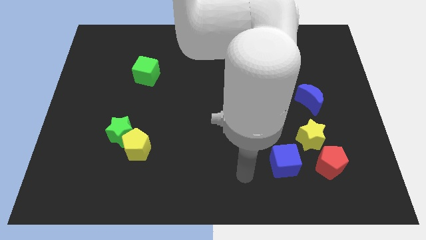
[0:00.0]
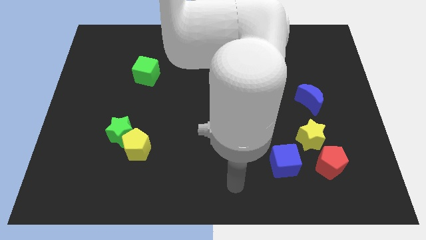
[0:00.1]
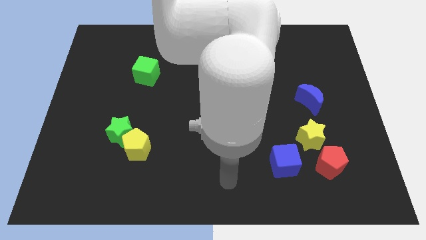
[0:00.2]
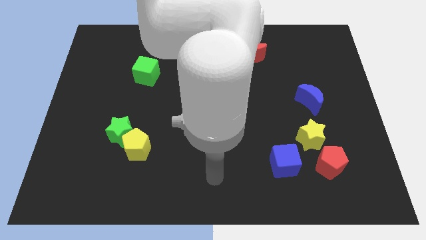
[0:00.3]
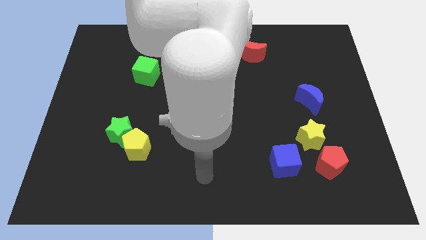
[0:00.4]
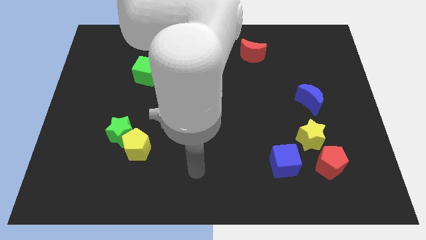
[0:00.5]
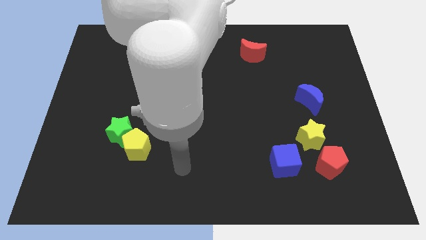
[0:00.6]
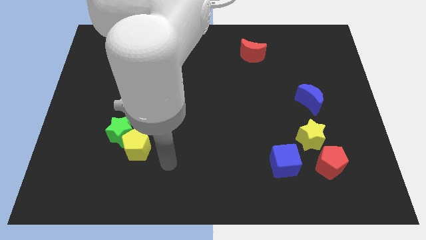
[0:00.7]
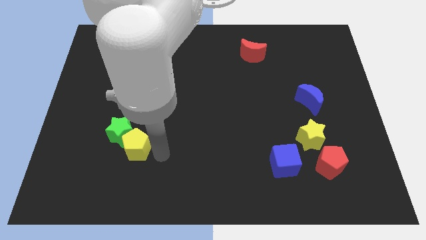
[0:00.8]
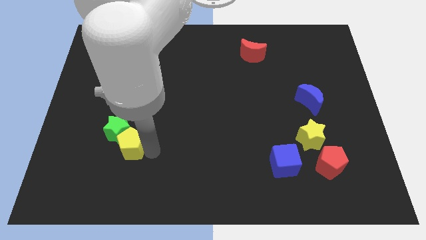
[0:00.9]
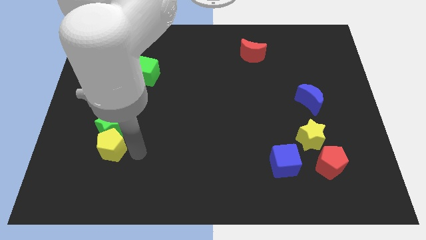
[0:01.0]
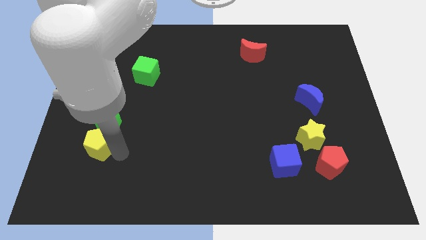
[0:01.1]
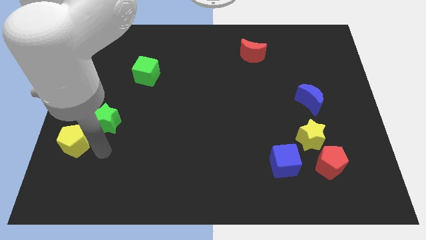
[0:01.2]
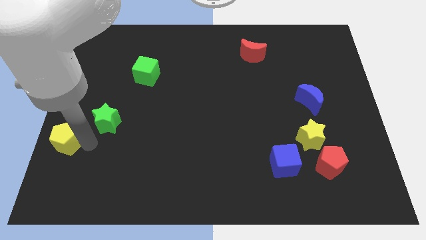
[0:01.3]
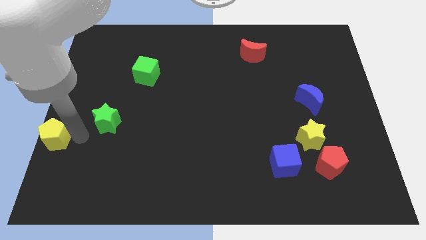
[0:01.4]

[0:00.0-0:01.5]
pull the green star apart from the yellow pentagon

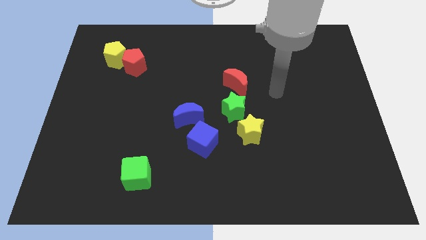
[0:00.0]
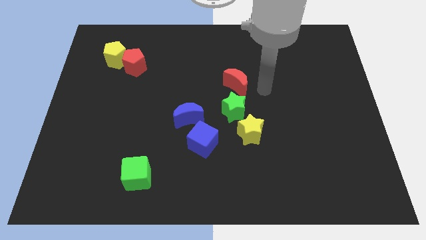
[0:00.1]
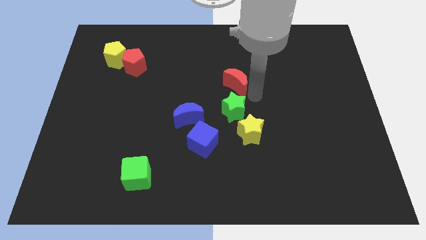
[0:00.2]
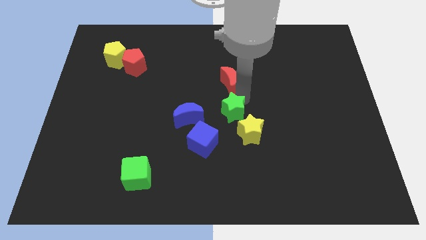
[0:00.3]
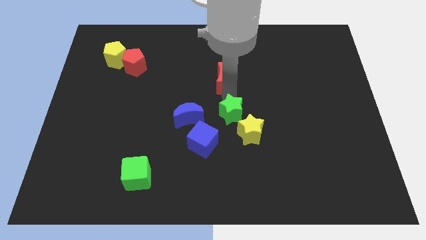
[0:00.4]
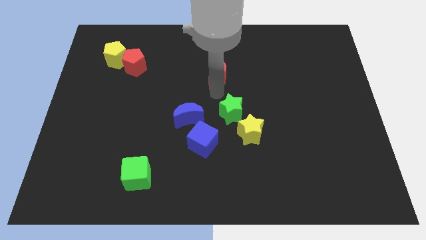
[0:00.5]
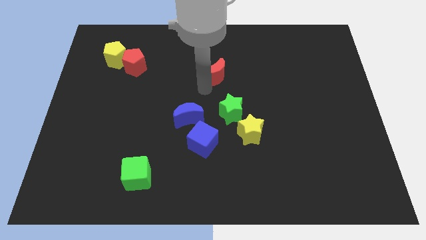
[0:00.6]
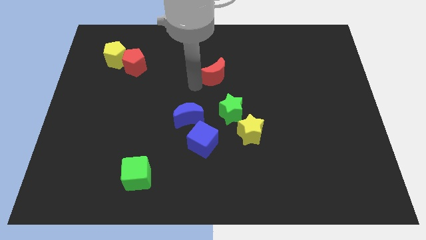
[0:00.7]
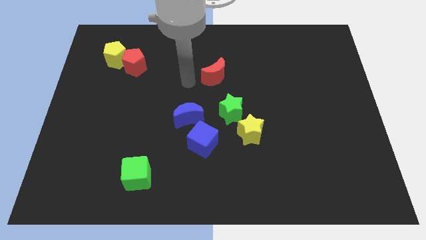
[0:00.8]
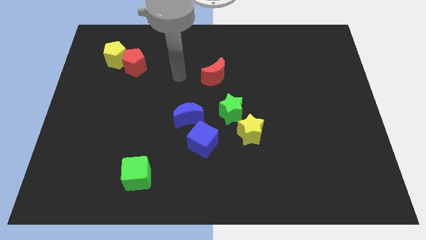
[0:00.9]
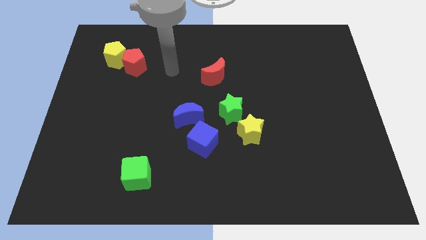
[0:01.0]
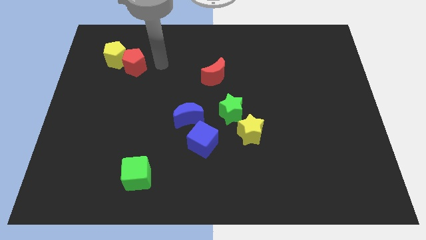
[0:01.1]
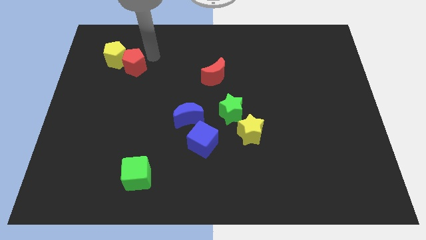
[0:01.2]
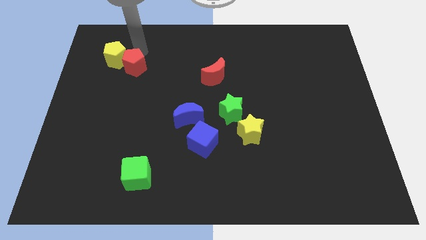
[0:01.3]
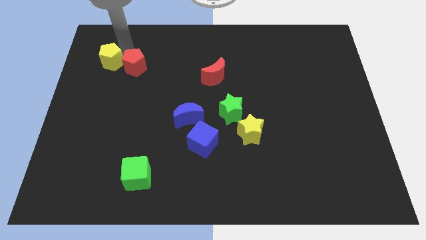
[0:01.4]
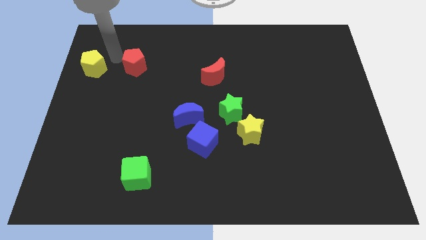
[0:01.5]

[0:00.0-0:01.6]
move the red pentagon away from the yellow pentagon

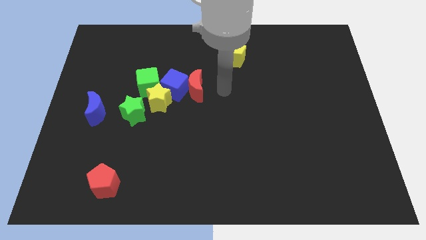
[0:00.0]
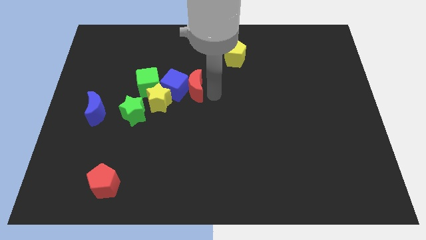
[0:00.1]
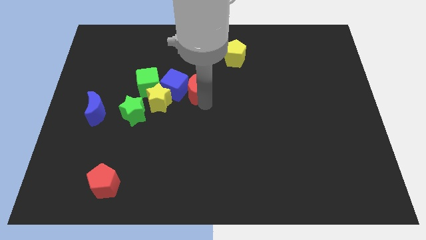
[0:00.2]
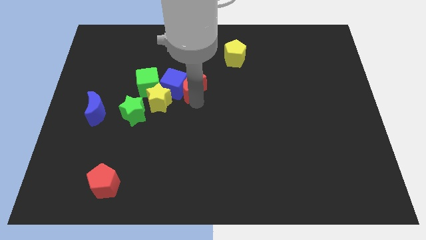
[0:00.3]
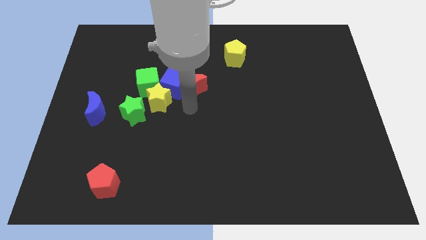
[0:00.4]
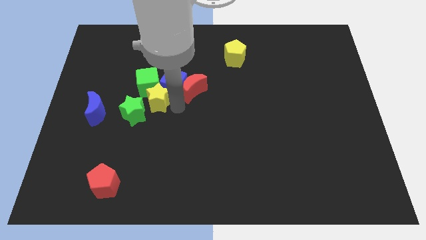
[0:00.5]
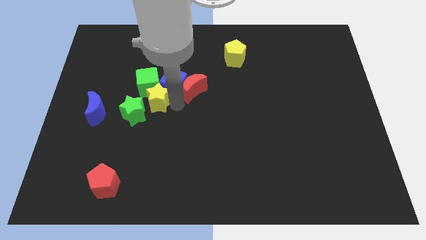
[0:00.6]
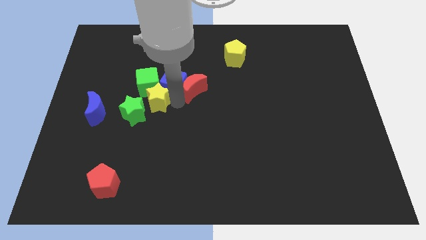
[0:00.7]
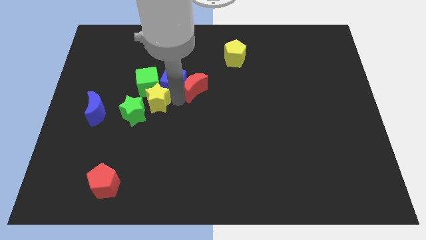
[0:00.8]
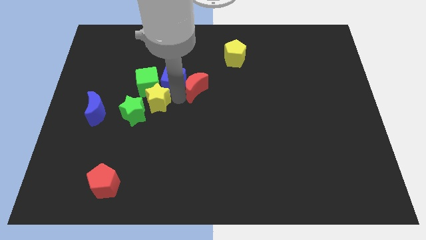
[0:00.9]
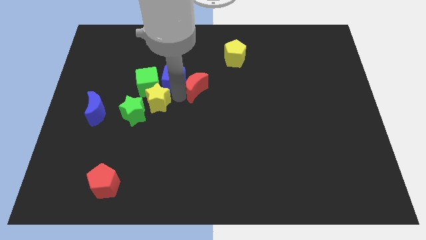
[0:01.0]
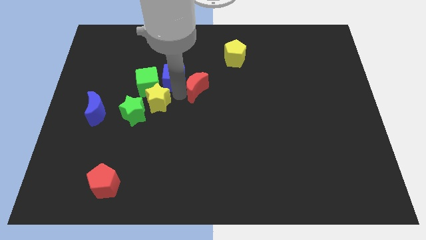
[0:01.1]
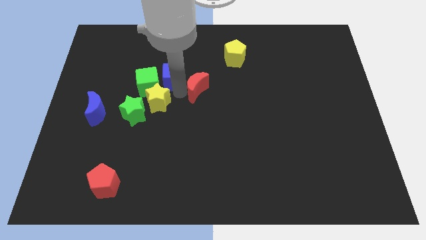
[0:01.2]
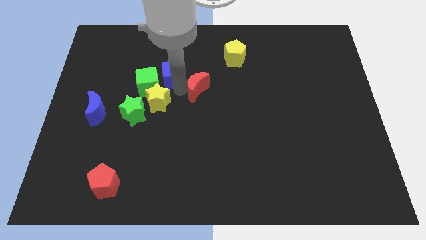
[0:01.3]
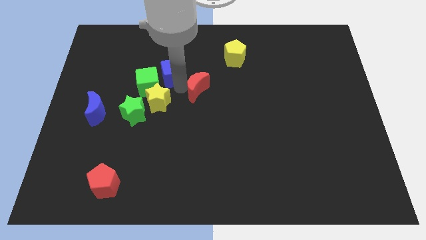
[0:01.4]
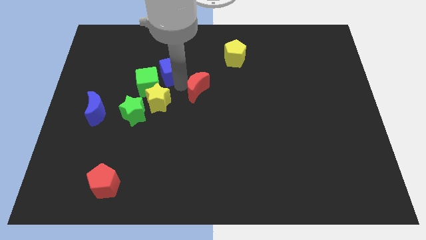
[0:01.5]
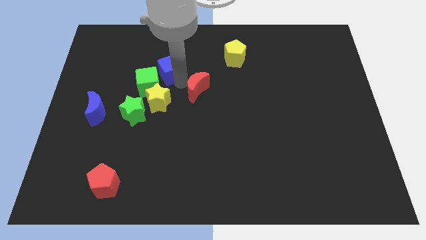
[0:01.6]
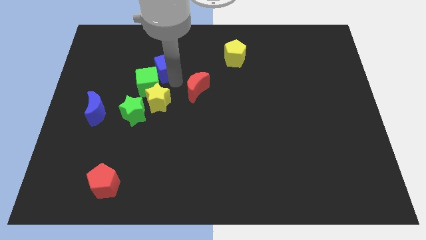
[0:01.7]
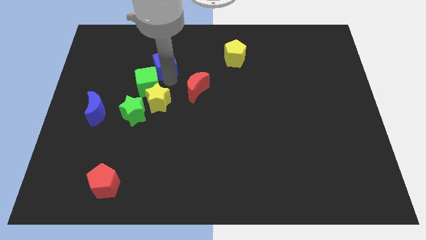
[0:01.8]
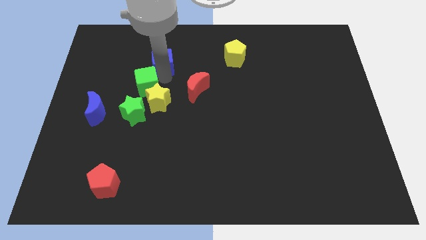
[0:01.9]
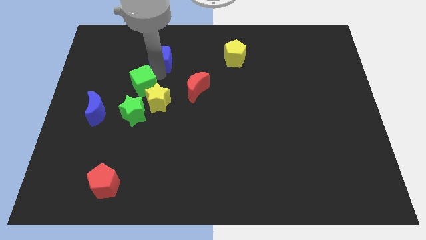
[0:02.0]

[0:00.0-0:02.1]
pull the blue cube apart from the red moon, yellow star, and green cube

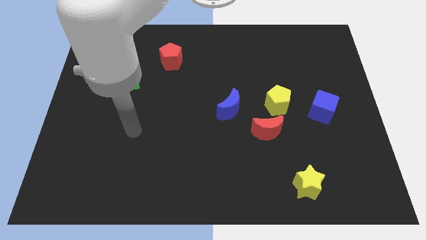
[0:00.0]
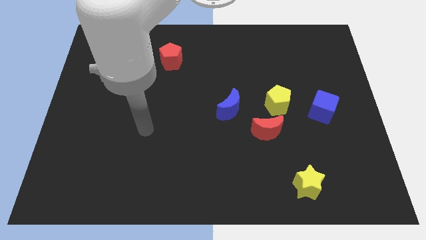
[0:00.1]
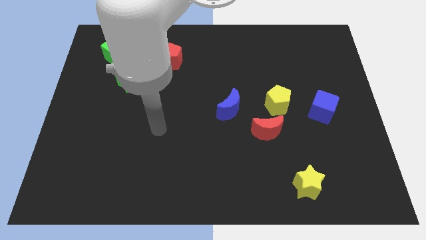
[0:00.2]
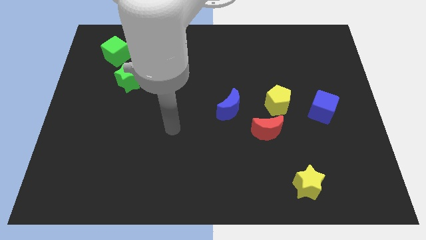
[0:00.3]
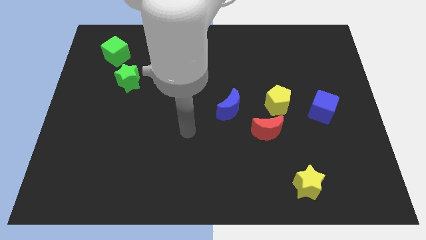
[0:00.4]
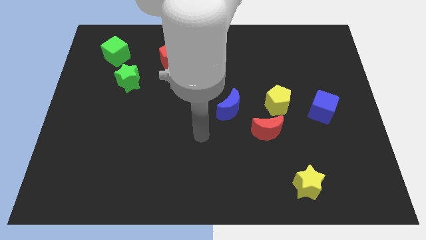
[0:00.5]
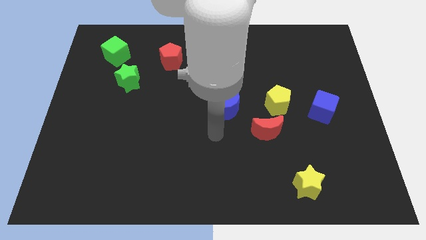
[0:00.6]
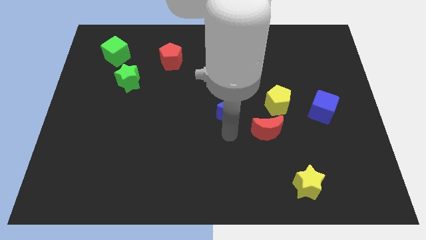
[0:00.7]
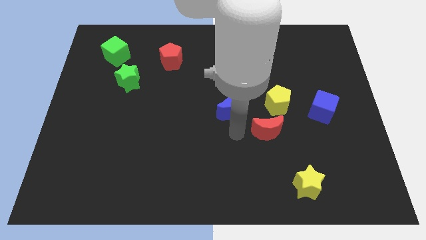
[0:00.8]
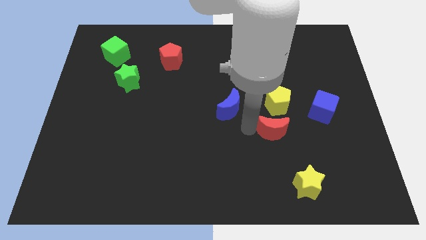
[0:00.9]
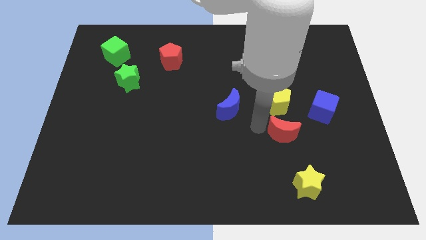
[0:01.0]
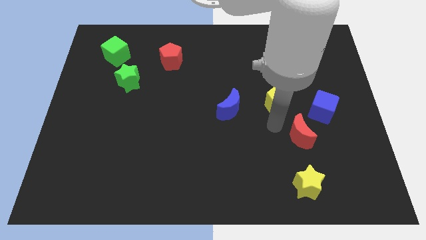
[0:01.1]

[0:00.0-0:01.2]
separate the yellow pentagon from the red moon

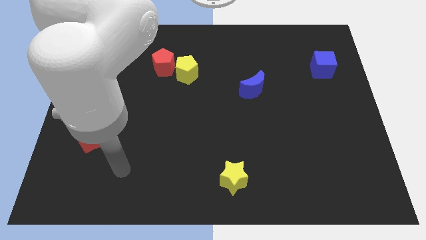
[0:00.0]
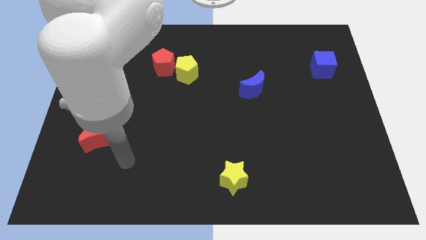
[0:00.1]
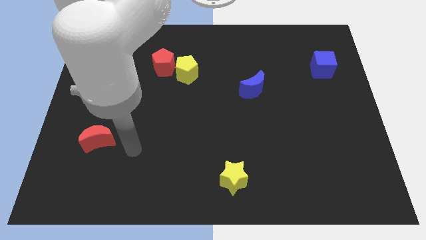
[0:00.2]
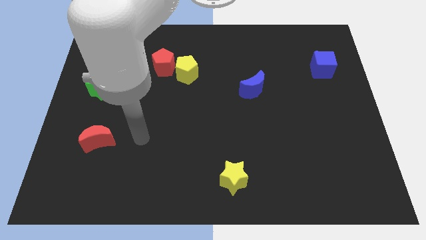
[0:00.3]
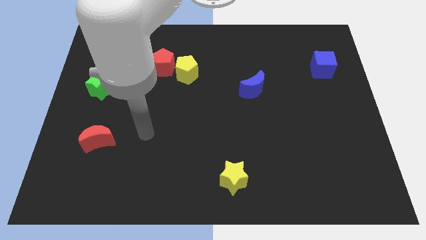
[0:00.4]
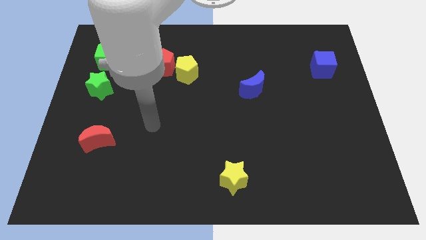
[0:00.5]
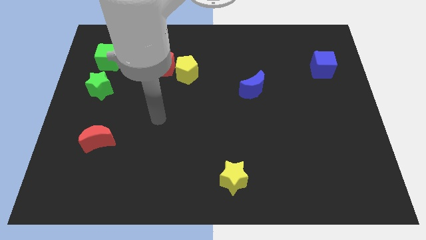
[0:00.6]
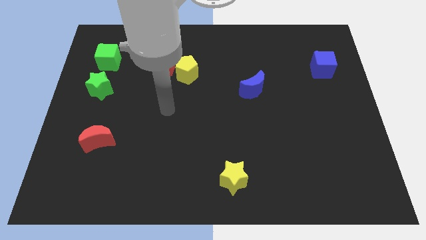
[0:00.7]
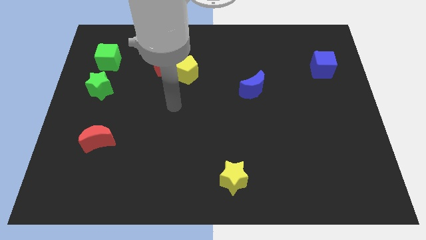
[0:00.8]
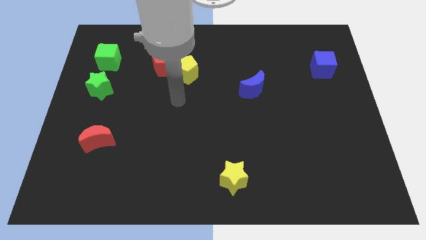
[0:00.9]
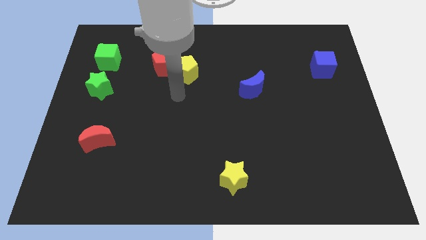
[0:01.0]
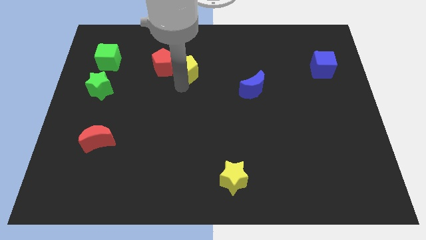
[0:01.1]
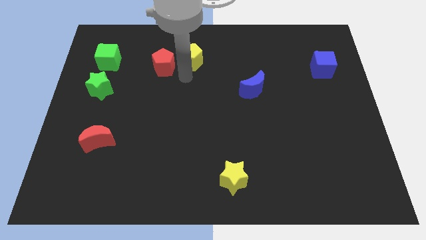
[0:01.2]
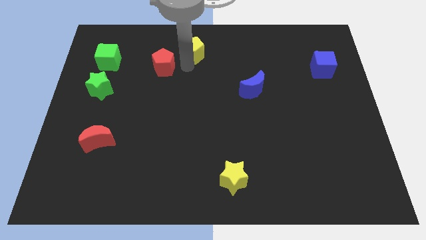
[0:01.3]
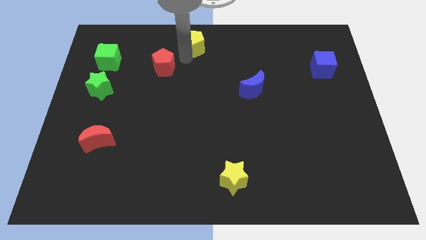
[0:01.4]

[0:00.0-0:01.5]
separate the red pentagon from the yellow pentagon

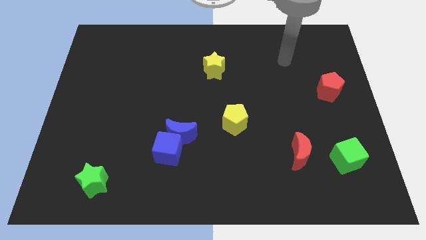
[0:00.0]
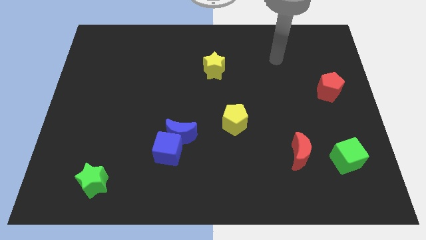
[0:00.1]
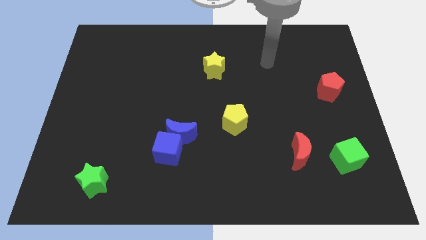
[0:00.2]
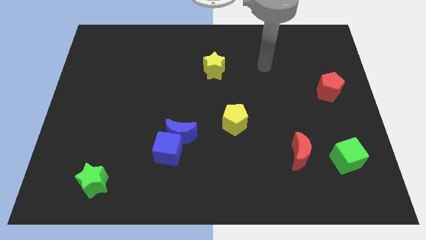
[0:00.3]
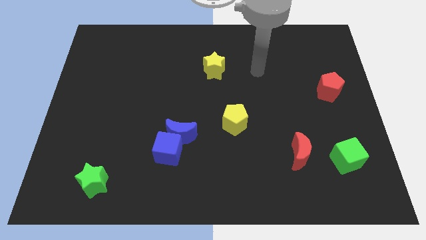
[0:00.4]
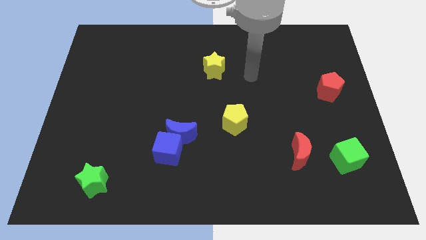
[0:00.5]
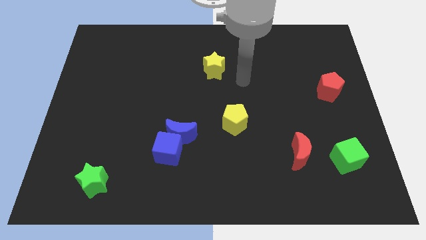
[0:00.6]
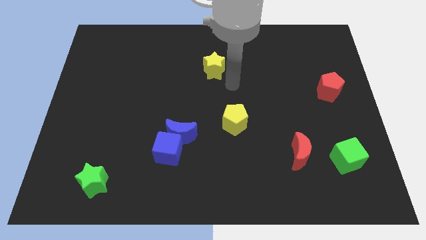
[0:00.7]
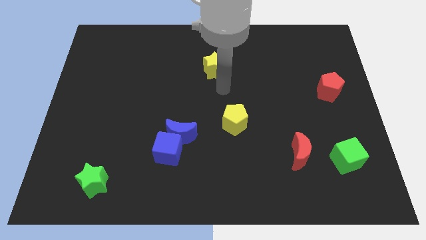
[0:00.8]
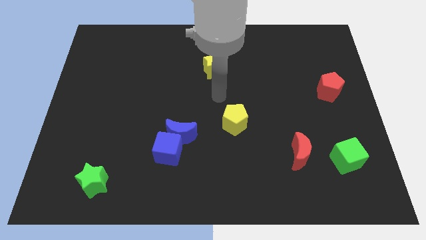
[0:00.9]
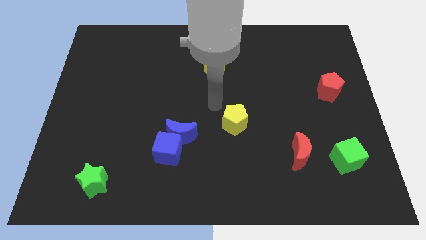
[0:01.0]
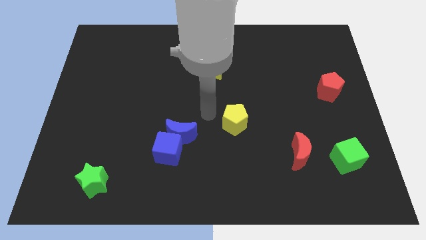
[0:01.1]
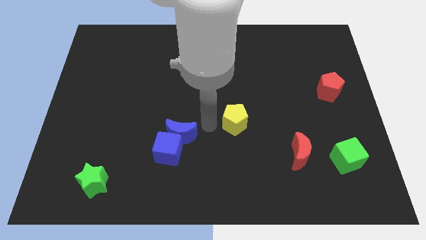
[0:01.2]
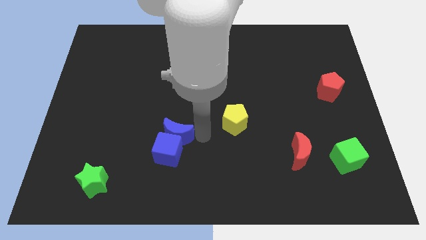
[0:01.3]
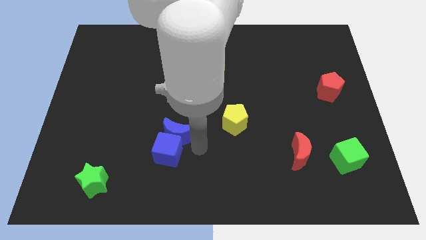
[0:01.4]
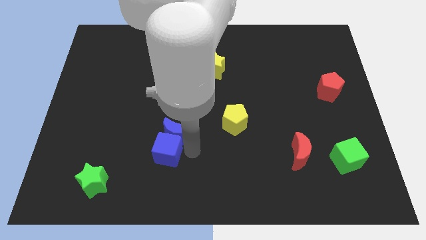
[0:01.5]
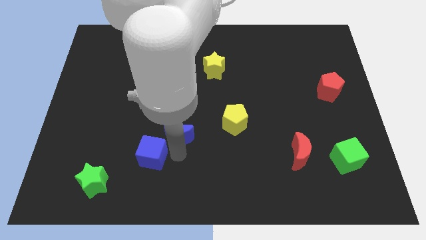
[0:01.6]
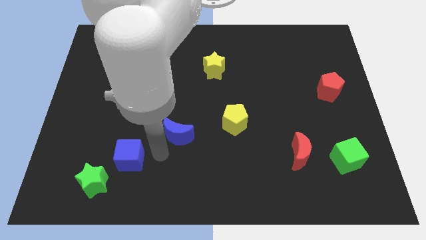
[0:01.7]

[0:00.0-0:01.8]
pull the blue moon apart from the blue cube
